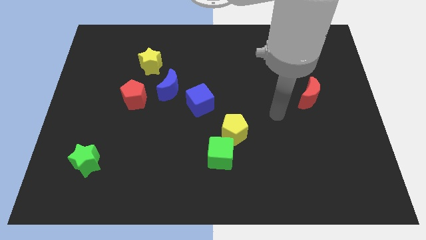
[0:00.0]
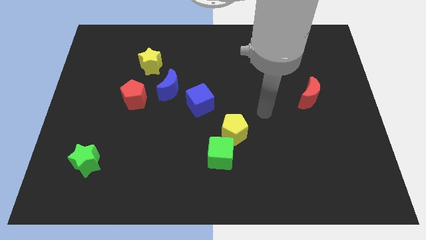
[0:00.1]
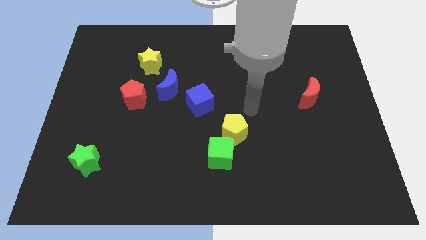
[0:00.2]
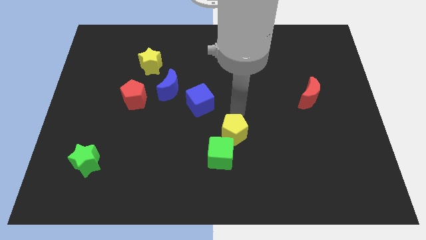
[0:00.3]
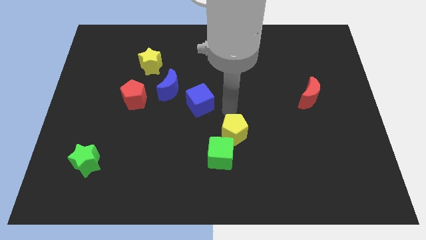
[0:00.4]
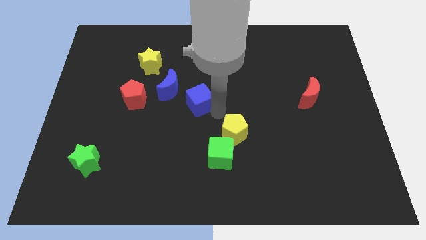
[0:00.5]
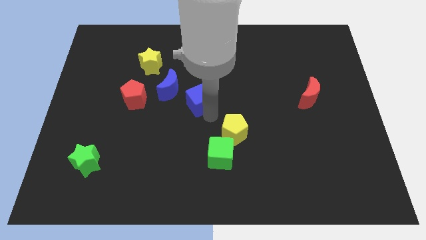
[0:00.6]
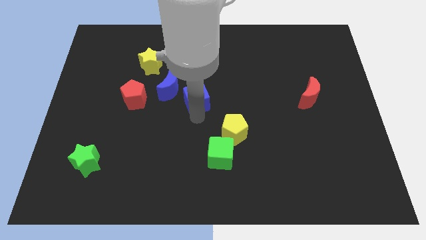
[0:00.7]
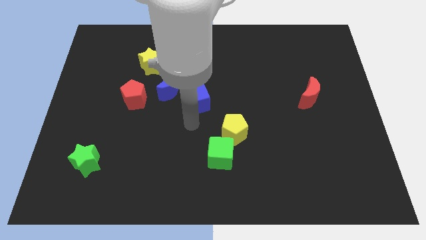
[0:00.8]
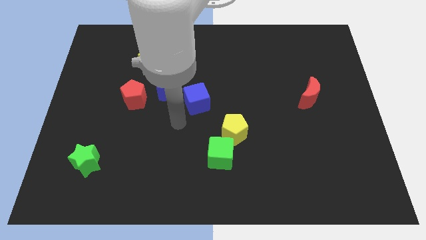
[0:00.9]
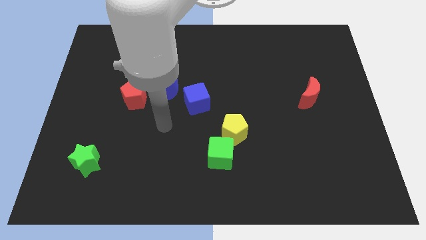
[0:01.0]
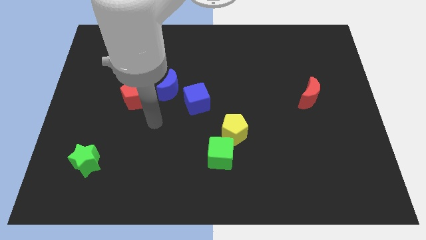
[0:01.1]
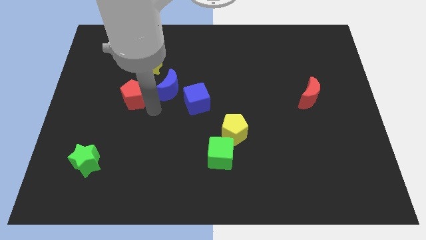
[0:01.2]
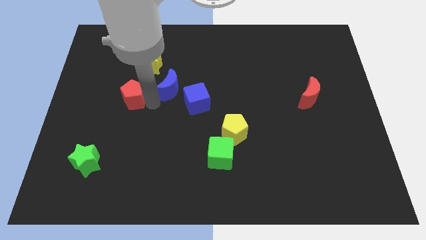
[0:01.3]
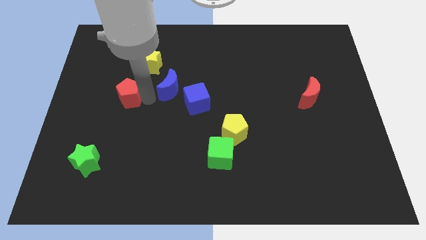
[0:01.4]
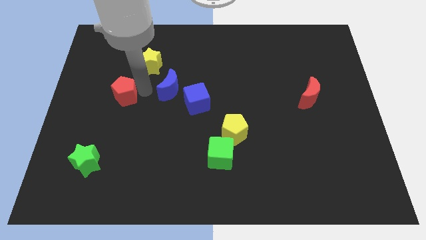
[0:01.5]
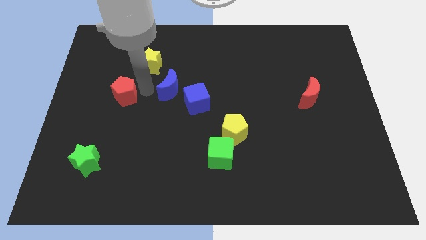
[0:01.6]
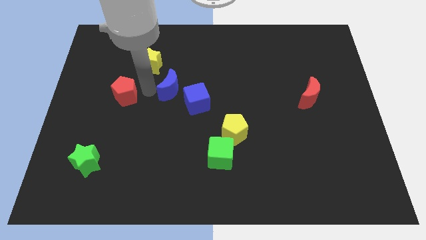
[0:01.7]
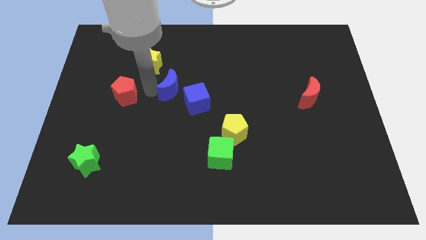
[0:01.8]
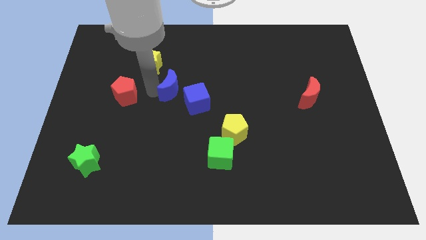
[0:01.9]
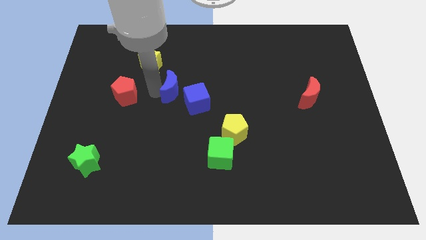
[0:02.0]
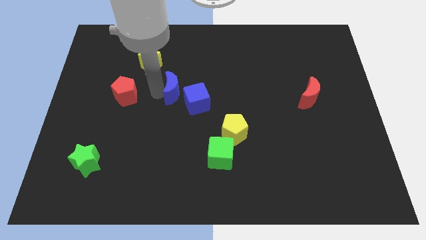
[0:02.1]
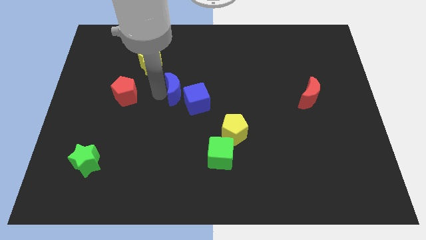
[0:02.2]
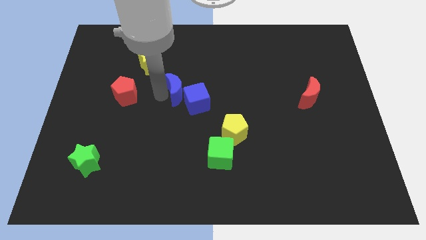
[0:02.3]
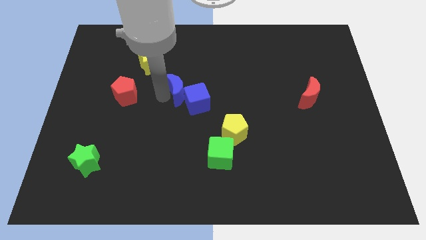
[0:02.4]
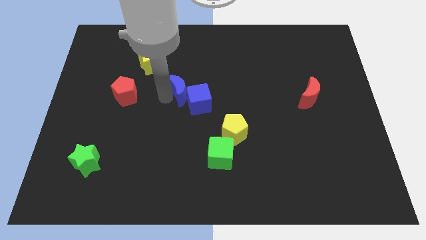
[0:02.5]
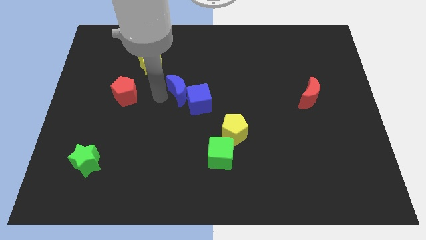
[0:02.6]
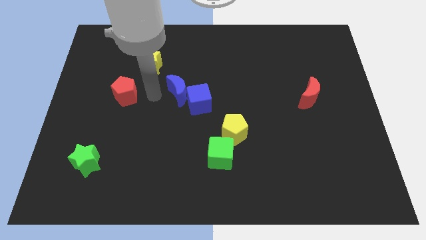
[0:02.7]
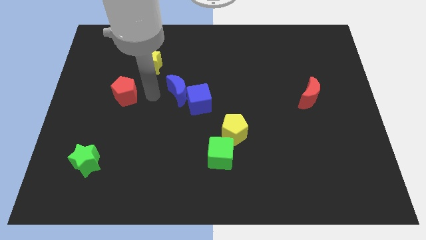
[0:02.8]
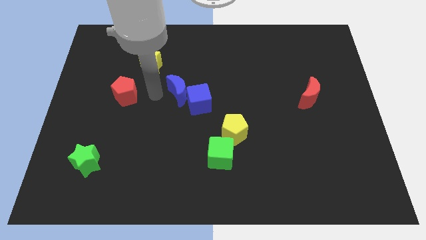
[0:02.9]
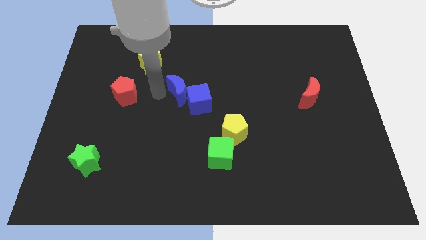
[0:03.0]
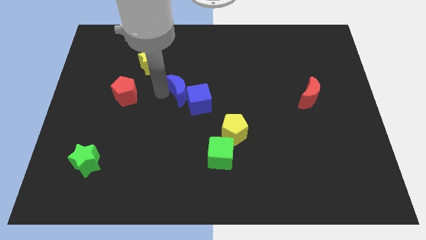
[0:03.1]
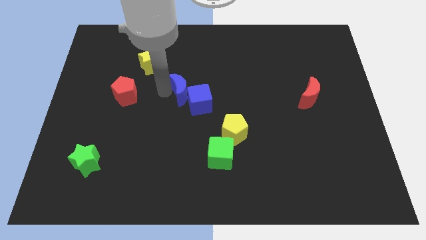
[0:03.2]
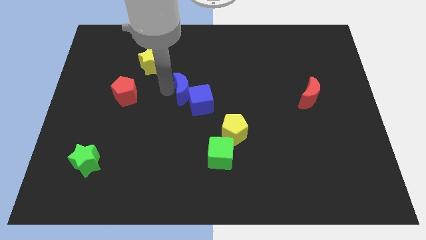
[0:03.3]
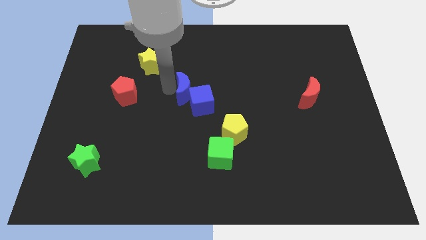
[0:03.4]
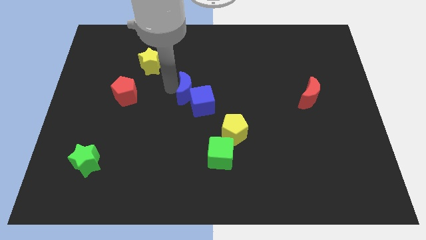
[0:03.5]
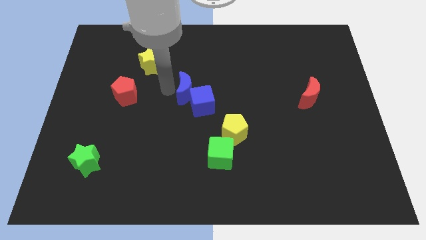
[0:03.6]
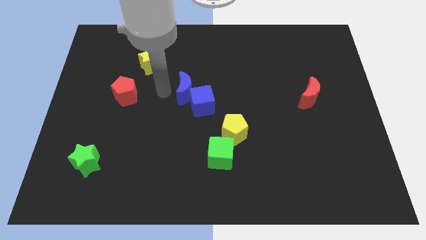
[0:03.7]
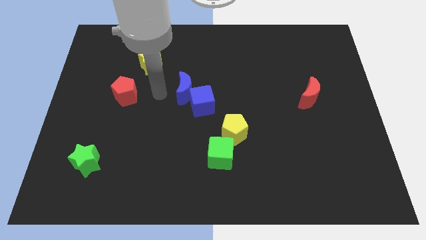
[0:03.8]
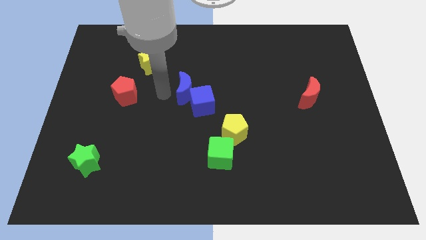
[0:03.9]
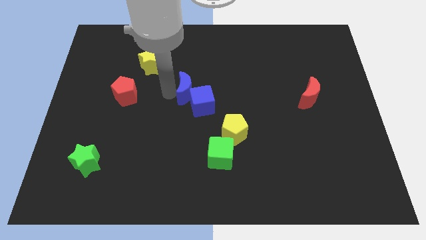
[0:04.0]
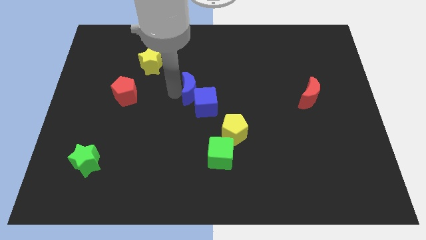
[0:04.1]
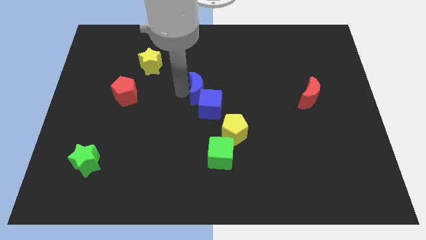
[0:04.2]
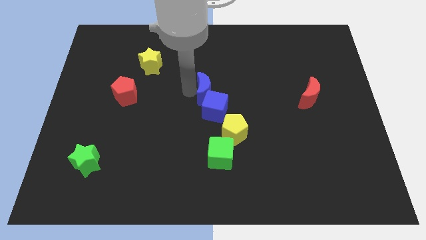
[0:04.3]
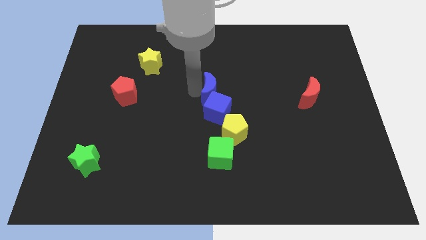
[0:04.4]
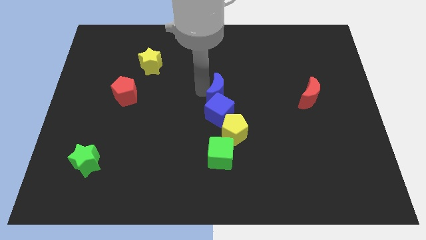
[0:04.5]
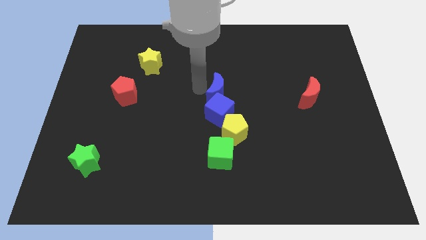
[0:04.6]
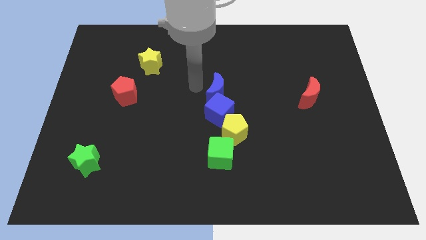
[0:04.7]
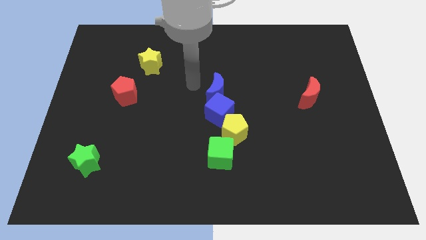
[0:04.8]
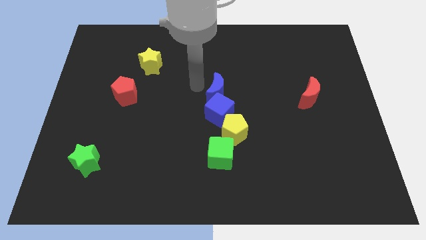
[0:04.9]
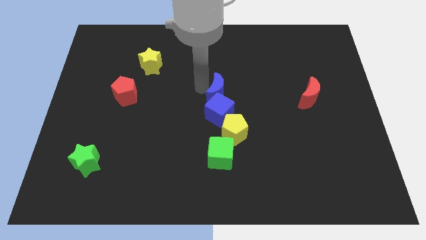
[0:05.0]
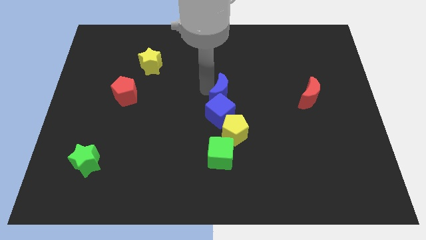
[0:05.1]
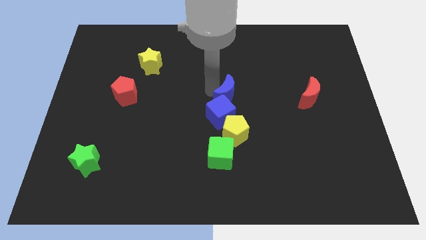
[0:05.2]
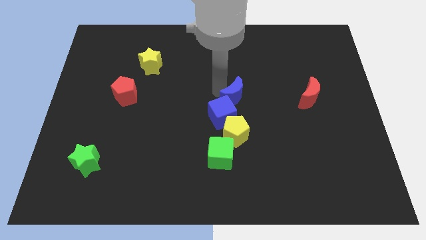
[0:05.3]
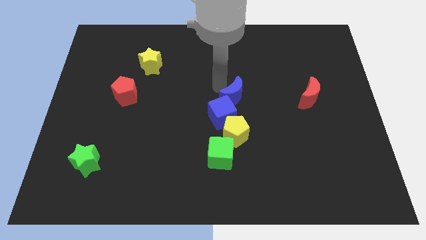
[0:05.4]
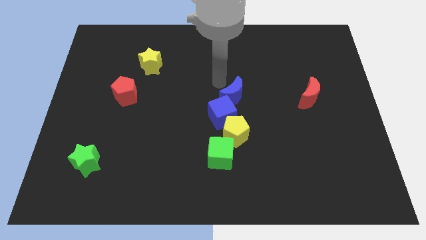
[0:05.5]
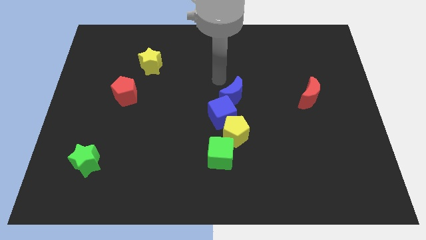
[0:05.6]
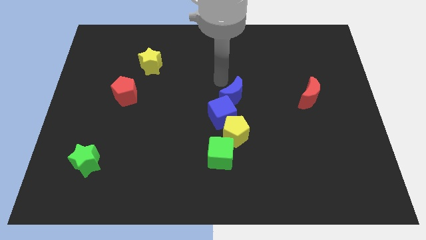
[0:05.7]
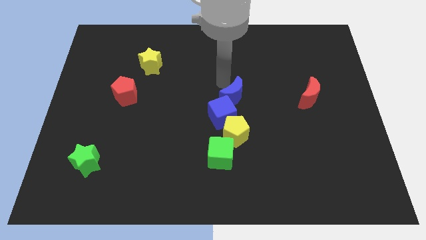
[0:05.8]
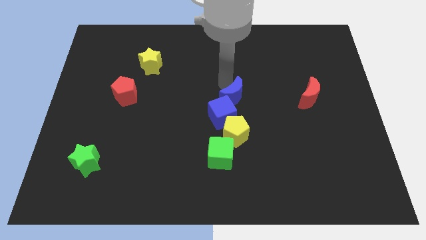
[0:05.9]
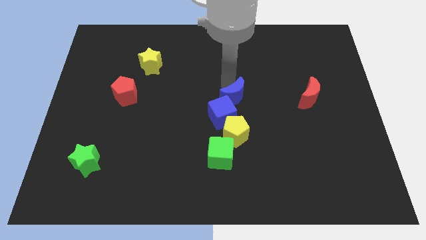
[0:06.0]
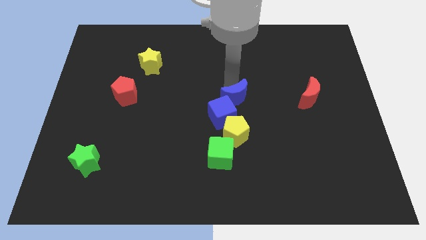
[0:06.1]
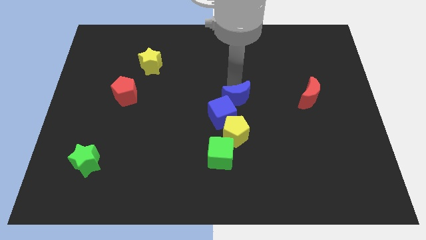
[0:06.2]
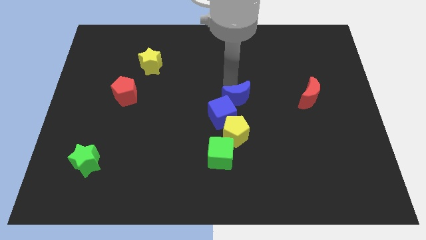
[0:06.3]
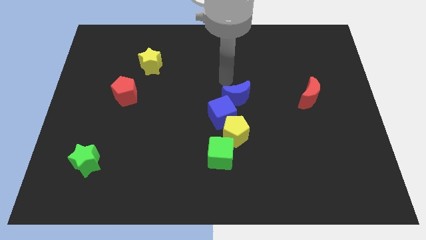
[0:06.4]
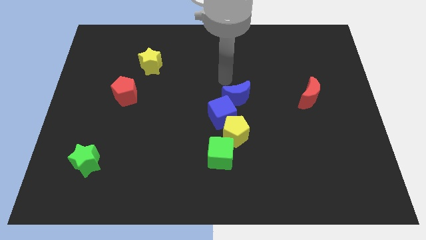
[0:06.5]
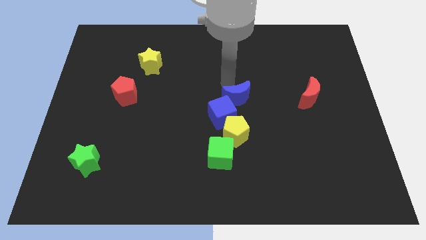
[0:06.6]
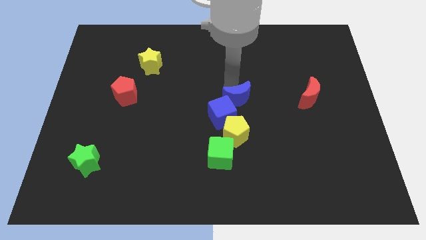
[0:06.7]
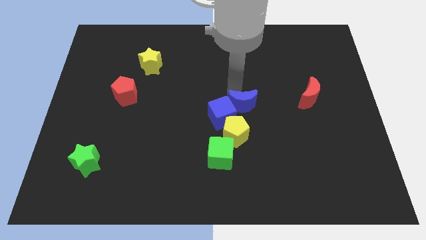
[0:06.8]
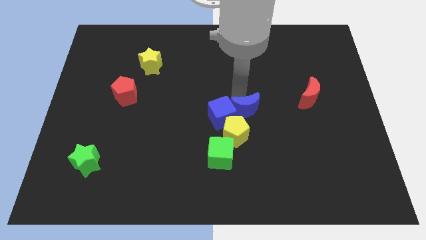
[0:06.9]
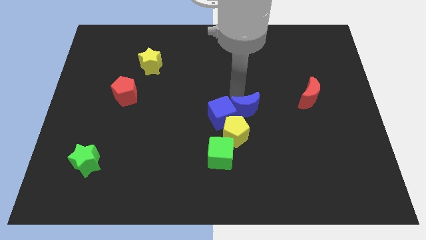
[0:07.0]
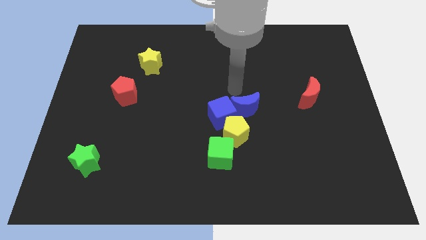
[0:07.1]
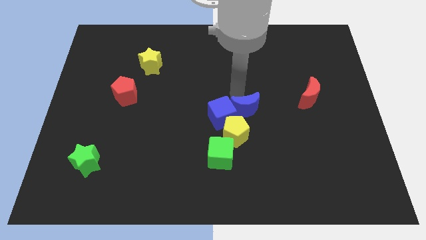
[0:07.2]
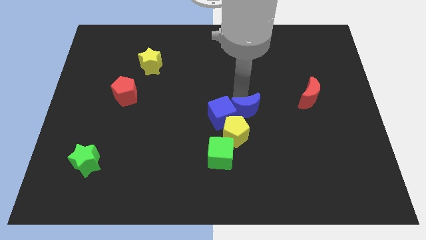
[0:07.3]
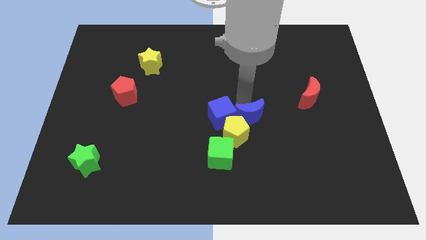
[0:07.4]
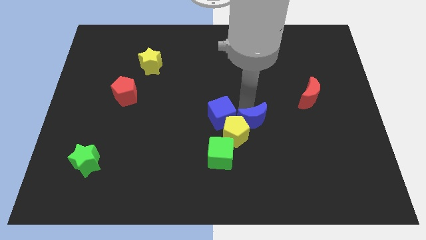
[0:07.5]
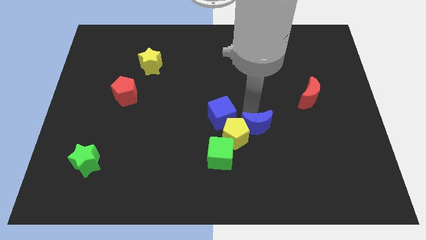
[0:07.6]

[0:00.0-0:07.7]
move the blue moon downwards and then right

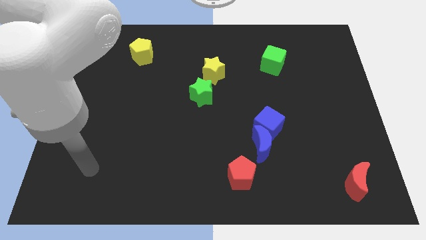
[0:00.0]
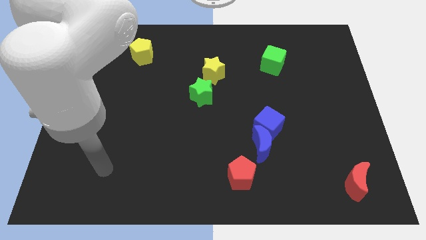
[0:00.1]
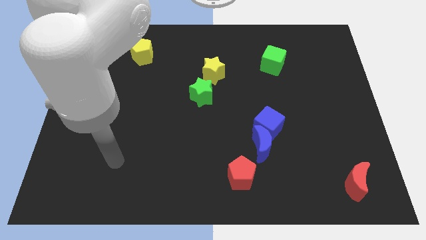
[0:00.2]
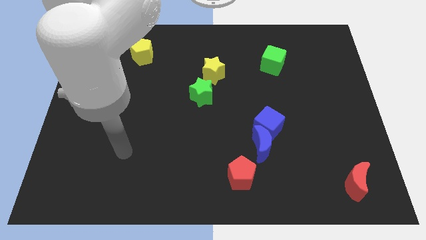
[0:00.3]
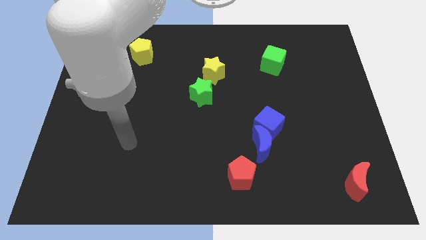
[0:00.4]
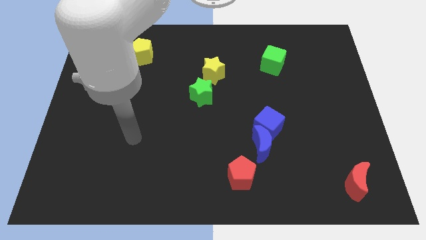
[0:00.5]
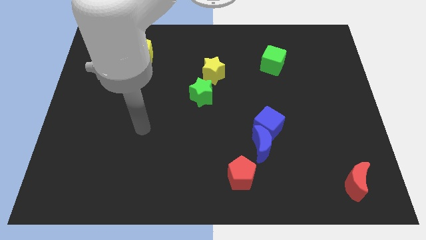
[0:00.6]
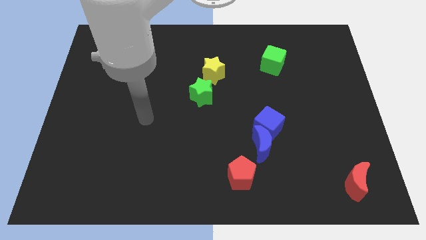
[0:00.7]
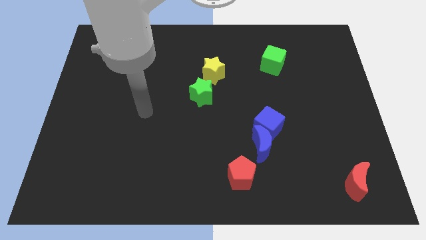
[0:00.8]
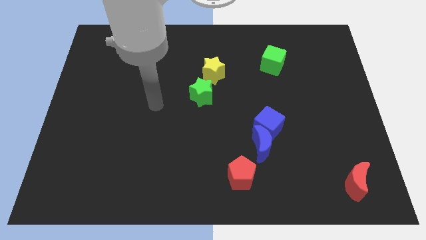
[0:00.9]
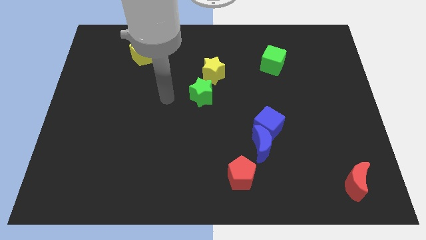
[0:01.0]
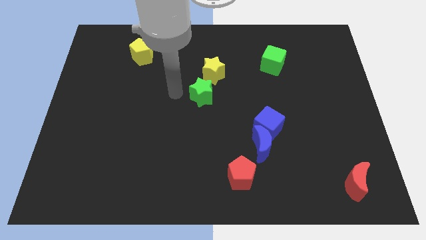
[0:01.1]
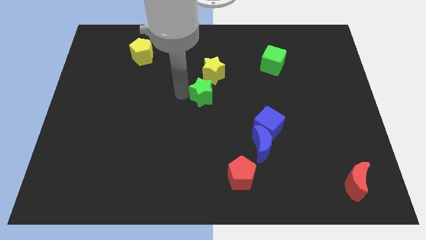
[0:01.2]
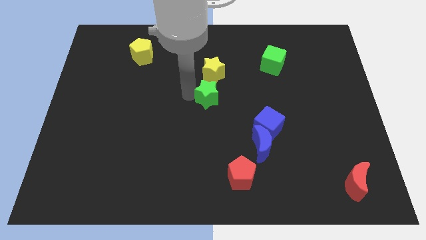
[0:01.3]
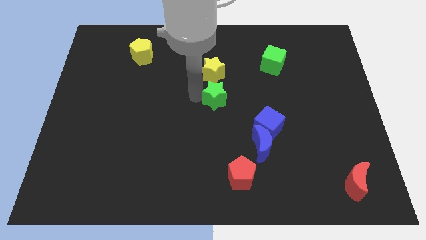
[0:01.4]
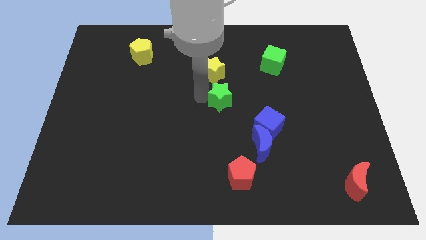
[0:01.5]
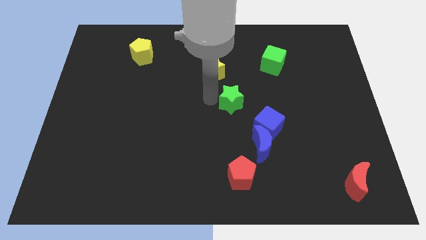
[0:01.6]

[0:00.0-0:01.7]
slide the green star to the right a little bit
